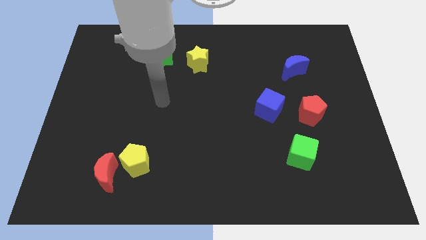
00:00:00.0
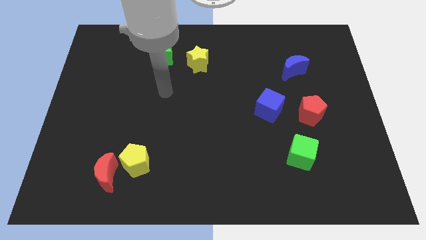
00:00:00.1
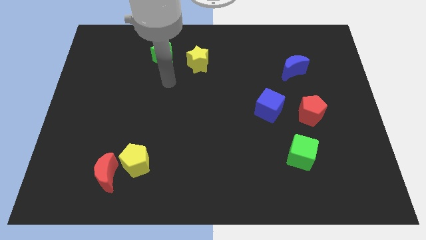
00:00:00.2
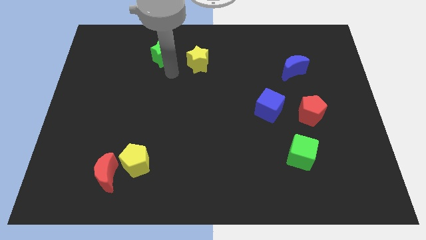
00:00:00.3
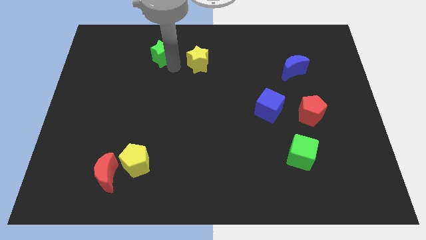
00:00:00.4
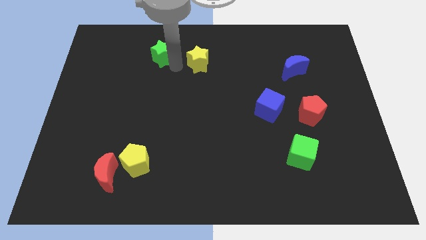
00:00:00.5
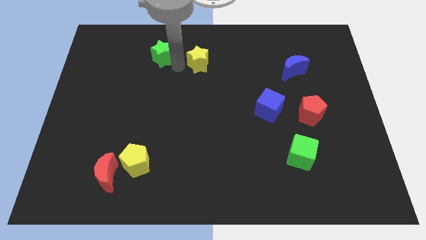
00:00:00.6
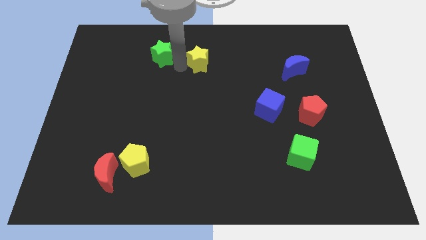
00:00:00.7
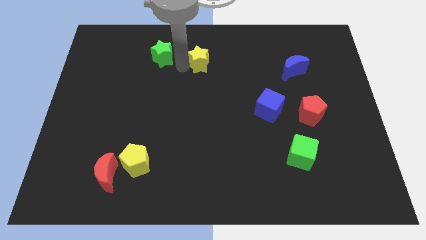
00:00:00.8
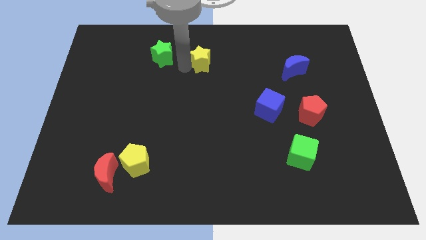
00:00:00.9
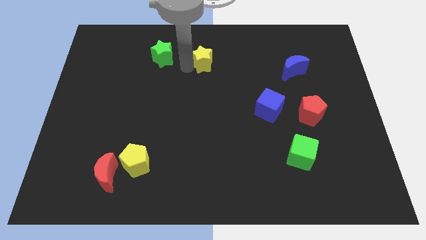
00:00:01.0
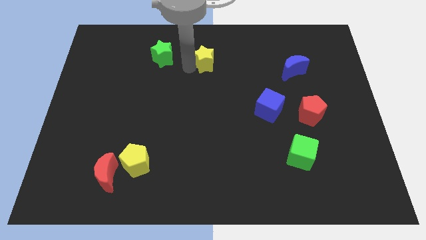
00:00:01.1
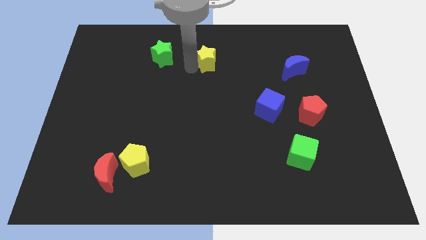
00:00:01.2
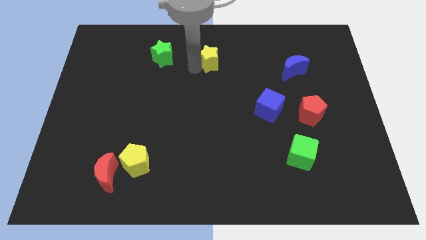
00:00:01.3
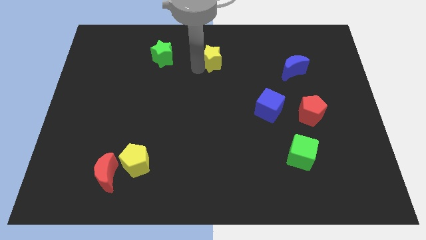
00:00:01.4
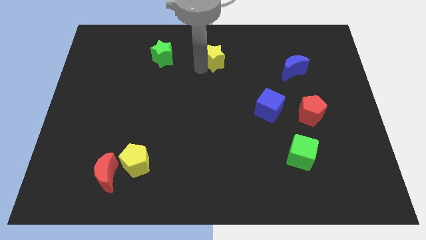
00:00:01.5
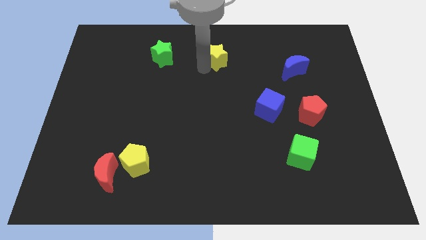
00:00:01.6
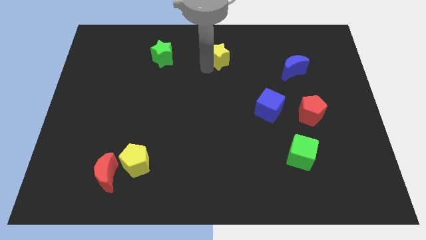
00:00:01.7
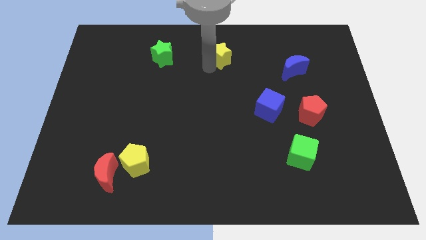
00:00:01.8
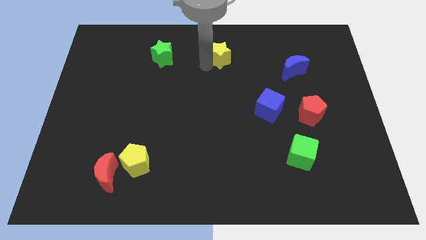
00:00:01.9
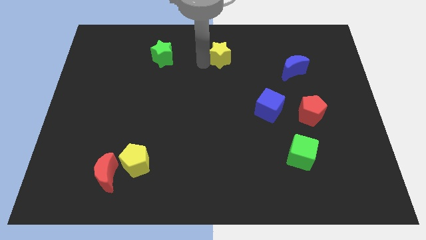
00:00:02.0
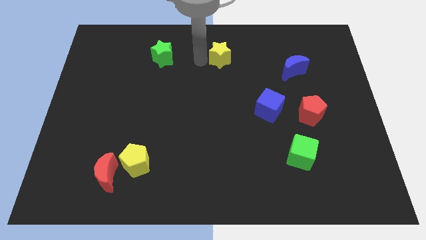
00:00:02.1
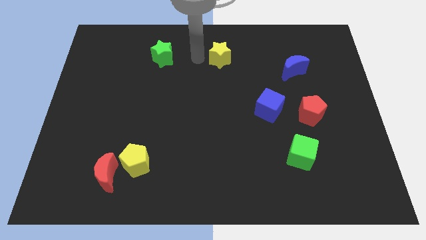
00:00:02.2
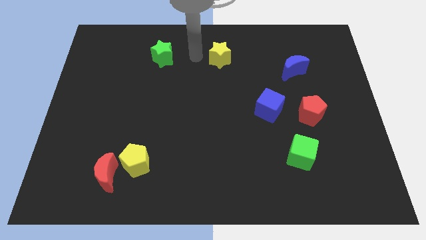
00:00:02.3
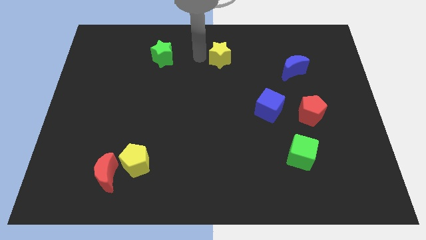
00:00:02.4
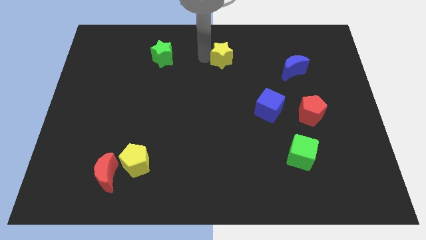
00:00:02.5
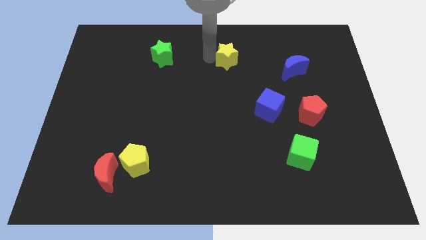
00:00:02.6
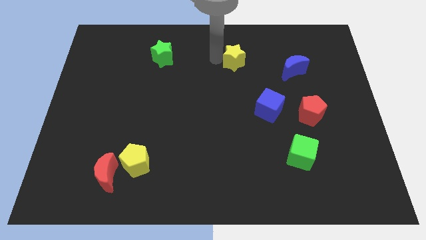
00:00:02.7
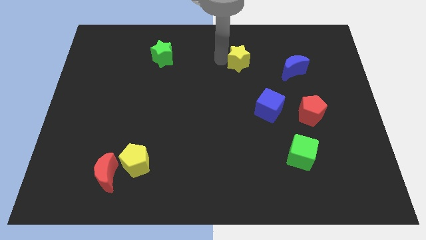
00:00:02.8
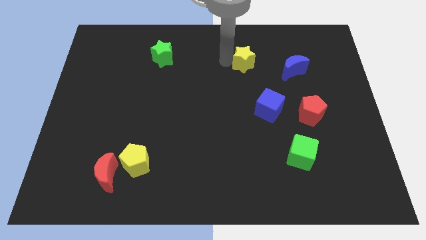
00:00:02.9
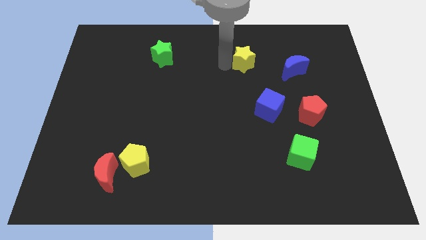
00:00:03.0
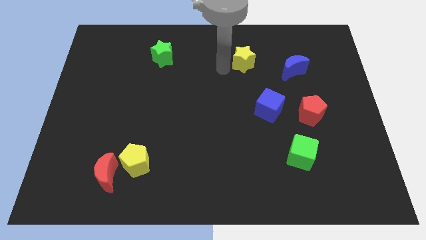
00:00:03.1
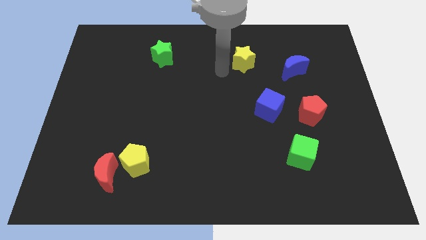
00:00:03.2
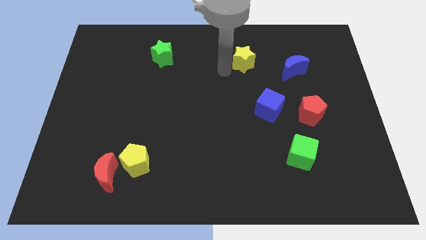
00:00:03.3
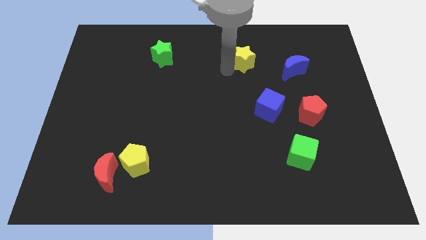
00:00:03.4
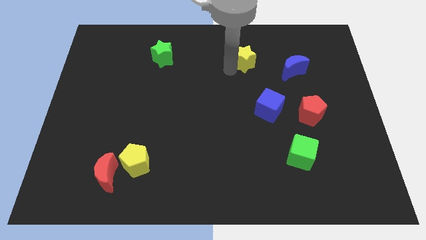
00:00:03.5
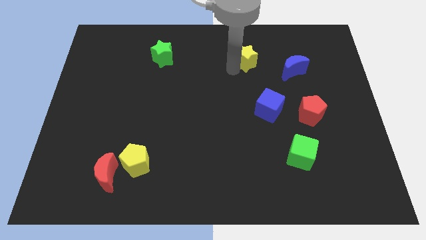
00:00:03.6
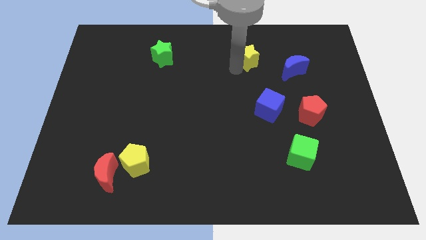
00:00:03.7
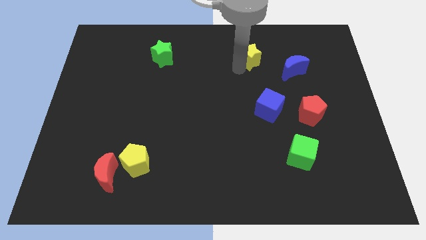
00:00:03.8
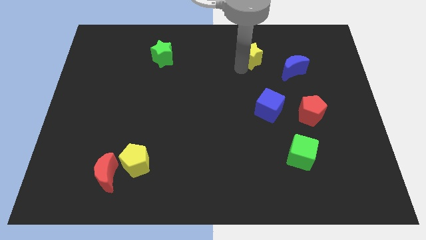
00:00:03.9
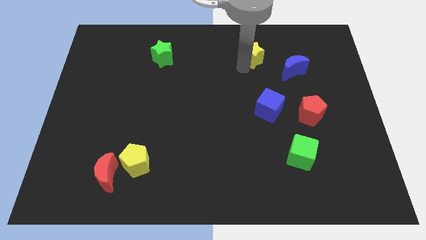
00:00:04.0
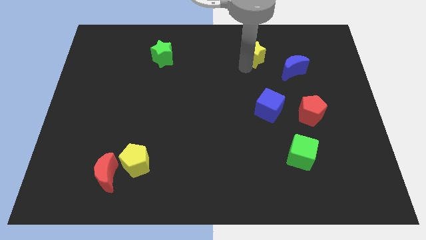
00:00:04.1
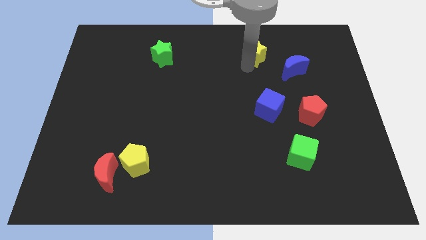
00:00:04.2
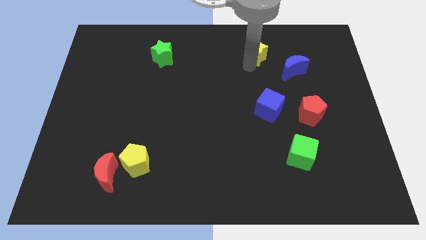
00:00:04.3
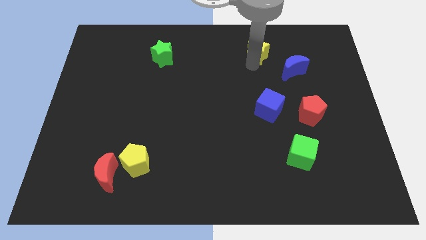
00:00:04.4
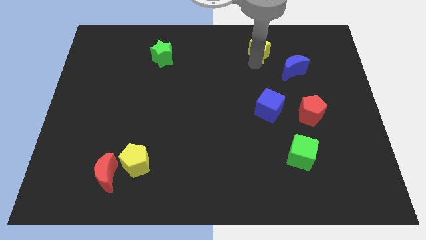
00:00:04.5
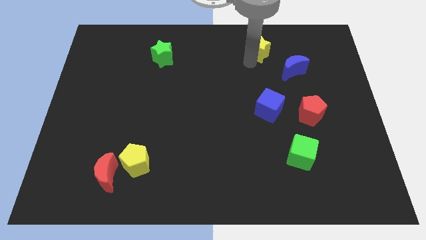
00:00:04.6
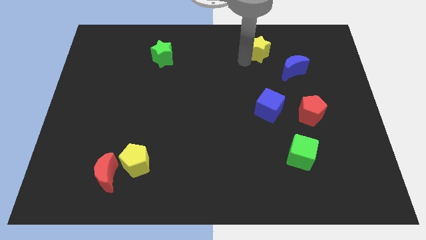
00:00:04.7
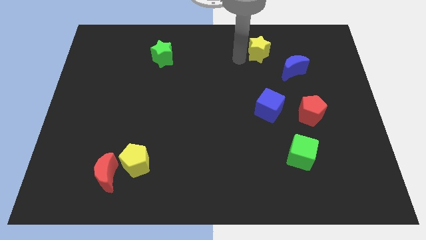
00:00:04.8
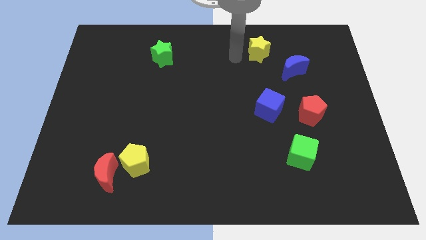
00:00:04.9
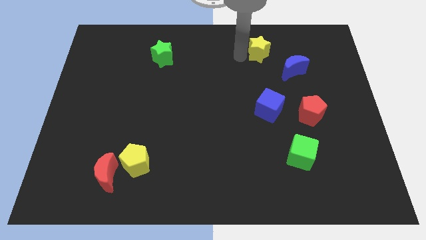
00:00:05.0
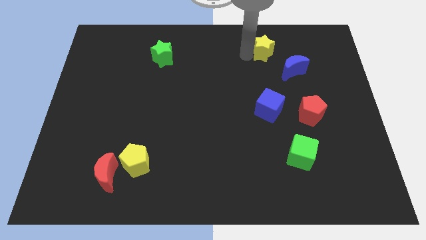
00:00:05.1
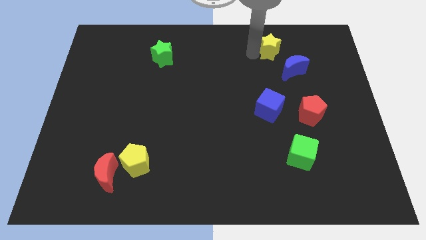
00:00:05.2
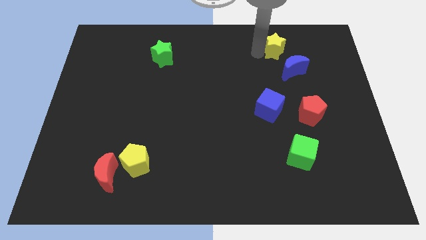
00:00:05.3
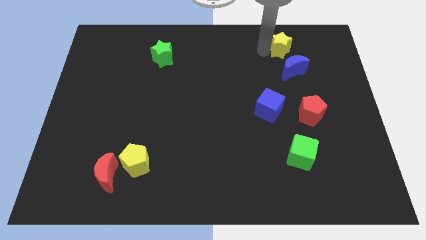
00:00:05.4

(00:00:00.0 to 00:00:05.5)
slide the yellow star to the right

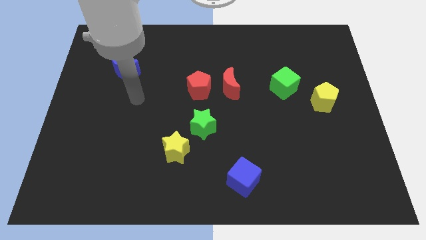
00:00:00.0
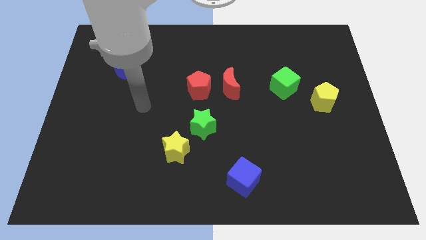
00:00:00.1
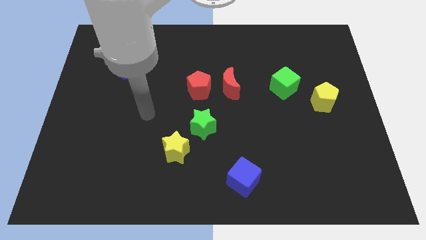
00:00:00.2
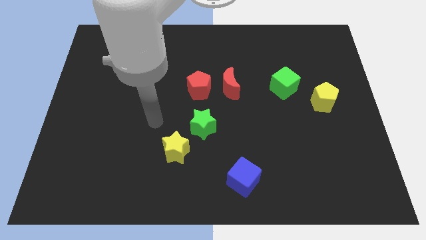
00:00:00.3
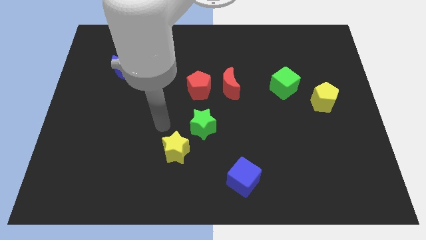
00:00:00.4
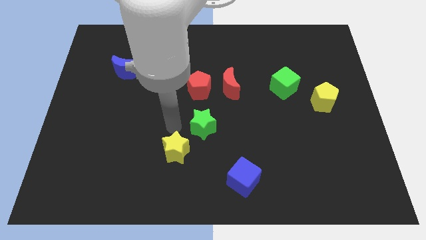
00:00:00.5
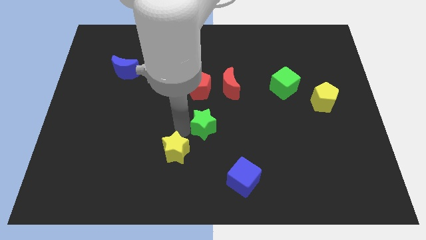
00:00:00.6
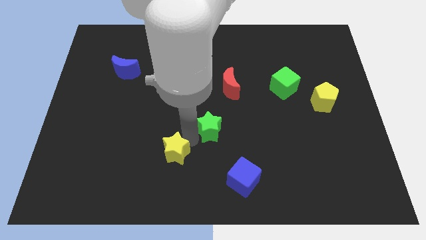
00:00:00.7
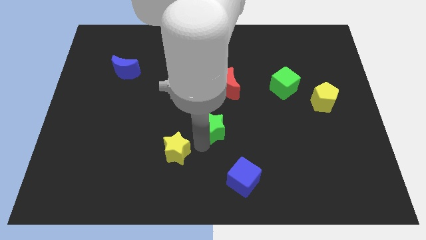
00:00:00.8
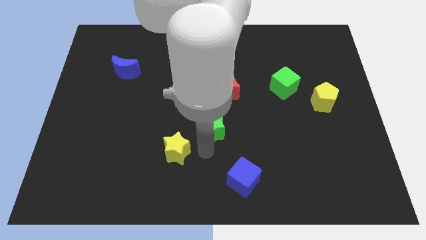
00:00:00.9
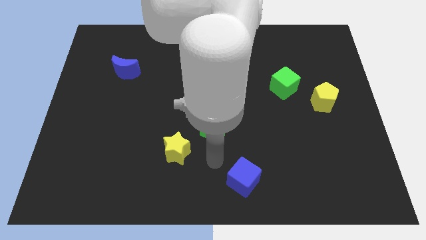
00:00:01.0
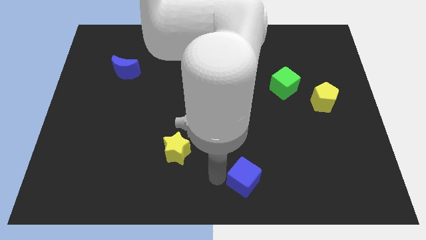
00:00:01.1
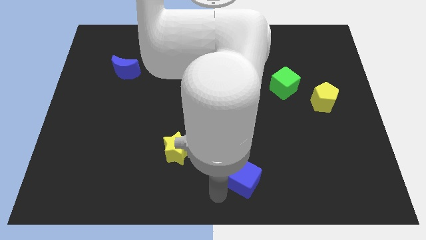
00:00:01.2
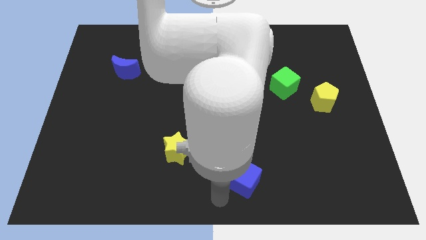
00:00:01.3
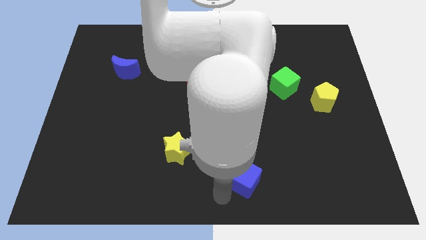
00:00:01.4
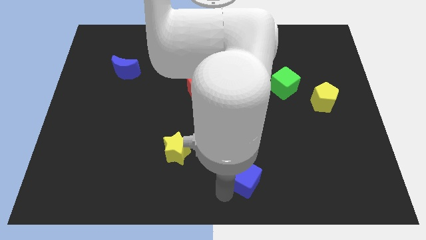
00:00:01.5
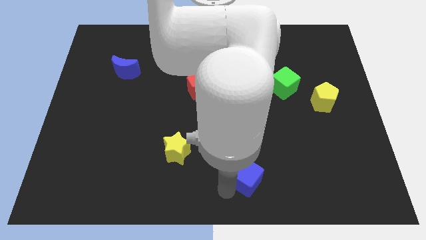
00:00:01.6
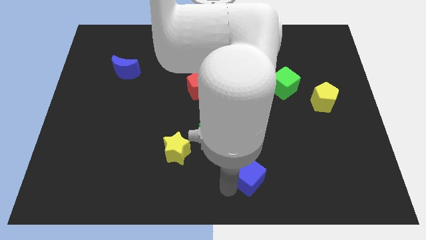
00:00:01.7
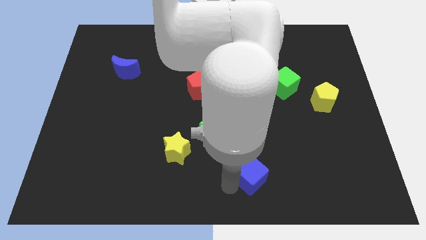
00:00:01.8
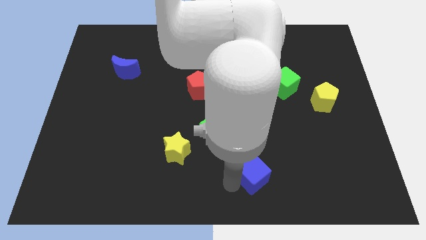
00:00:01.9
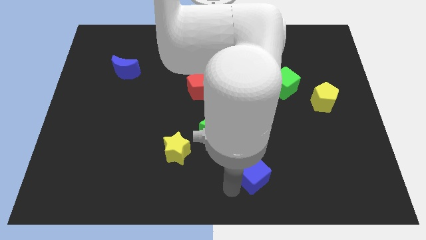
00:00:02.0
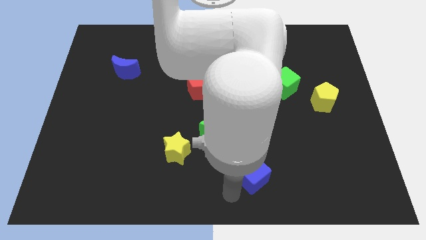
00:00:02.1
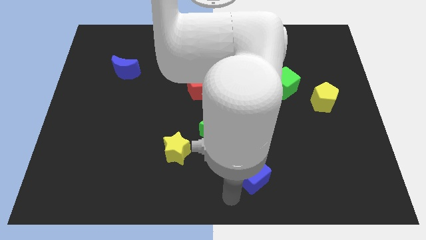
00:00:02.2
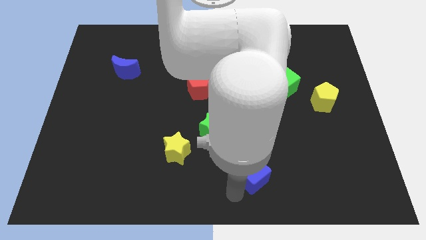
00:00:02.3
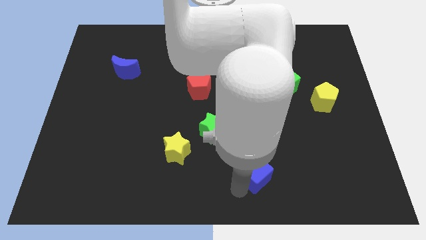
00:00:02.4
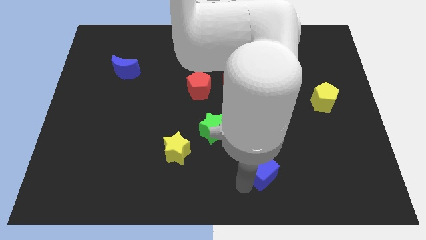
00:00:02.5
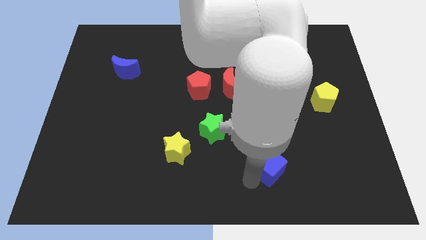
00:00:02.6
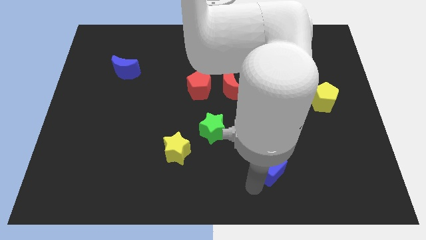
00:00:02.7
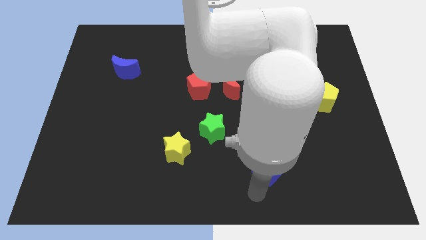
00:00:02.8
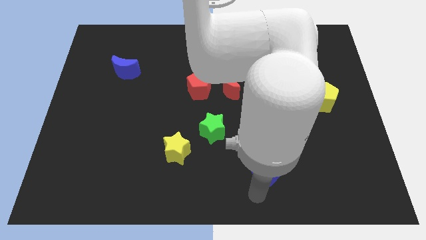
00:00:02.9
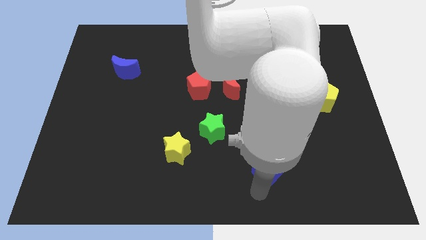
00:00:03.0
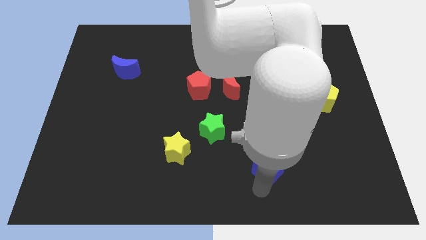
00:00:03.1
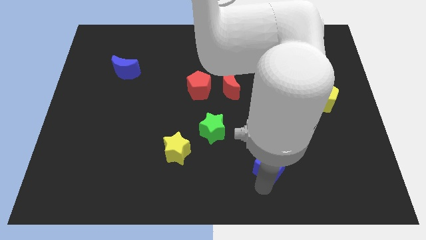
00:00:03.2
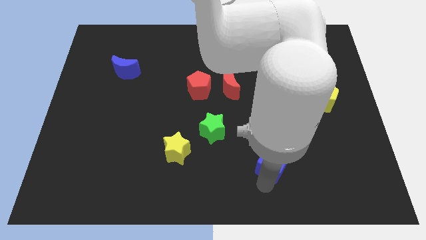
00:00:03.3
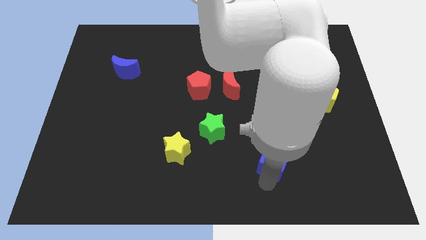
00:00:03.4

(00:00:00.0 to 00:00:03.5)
move the blue cube slightly up and right

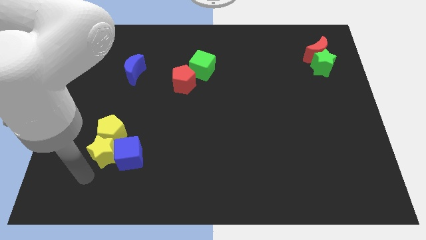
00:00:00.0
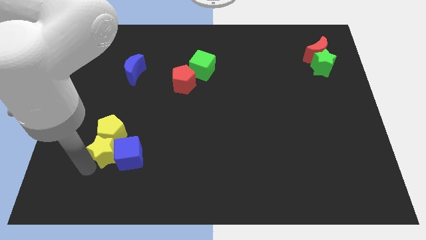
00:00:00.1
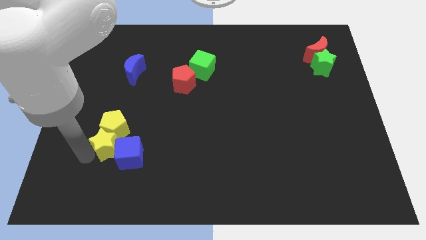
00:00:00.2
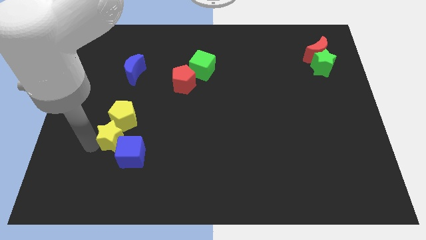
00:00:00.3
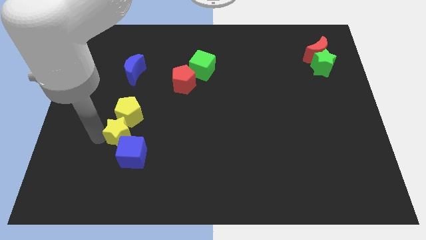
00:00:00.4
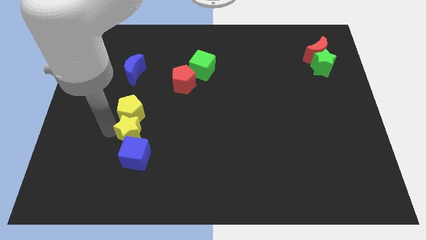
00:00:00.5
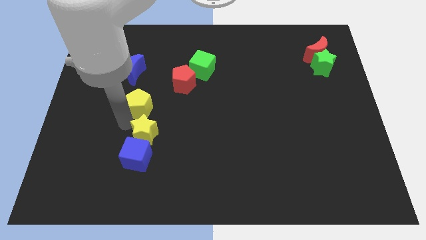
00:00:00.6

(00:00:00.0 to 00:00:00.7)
push the yellow star to the right a little bit
